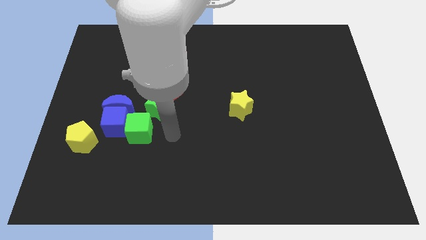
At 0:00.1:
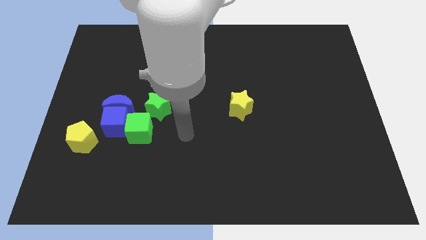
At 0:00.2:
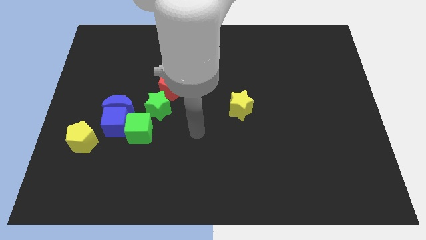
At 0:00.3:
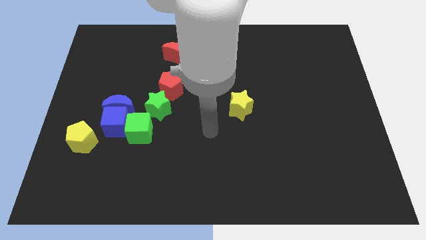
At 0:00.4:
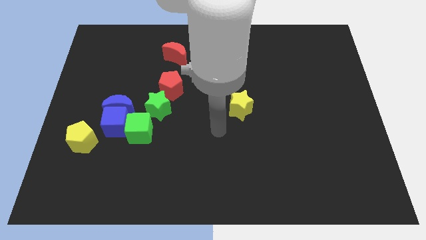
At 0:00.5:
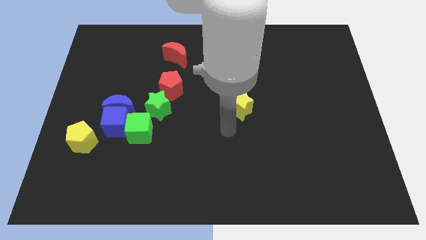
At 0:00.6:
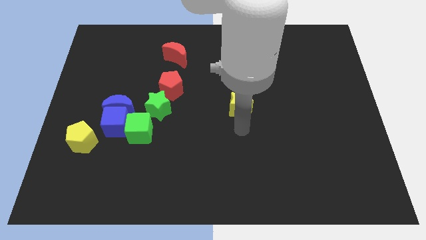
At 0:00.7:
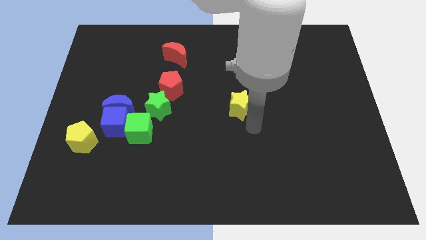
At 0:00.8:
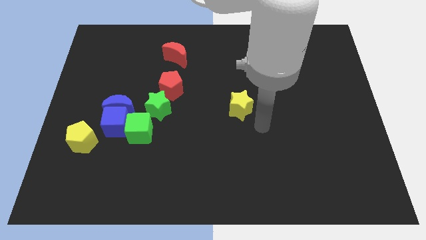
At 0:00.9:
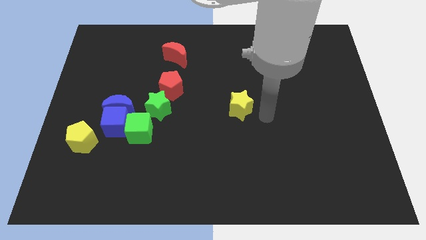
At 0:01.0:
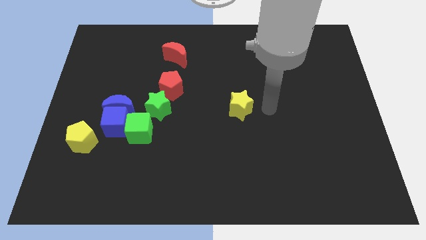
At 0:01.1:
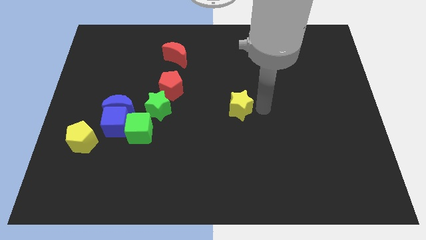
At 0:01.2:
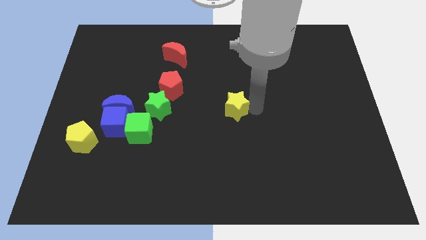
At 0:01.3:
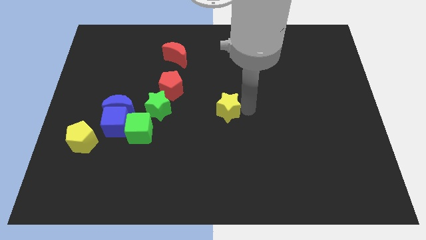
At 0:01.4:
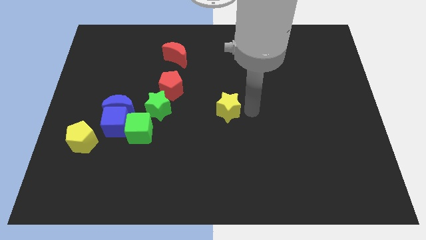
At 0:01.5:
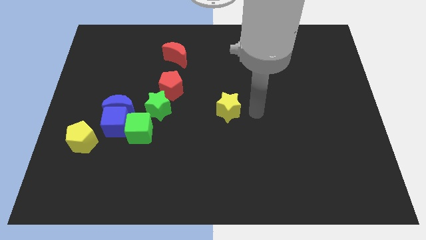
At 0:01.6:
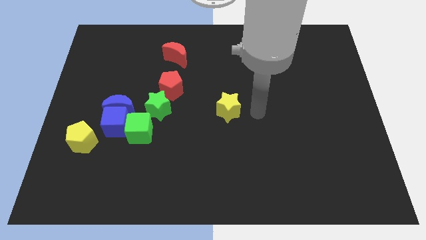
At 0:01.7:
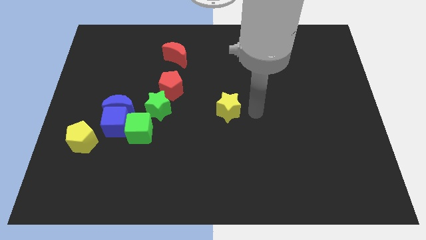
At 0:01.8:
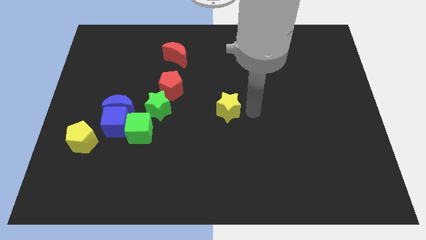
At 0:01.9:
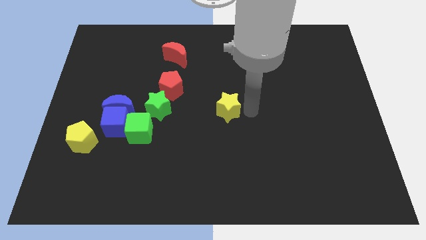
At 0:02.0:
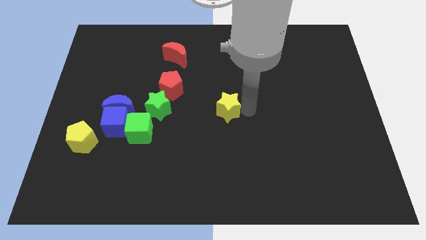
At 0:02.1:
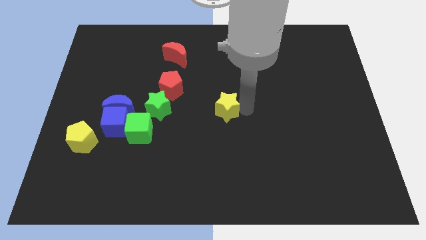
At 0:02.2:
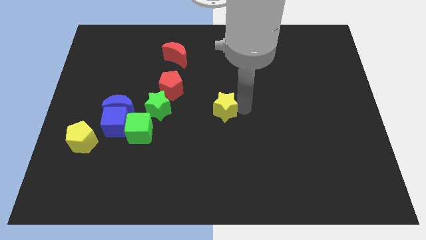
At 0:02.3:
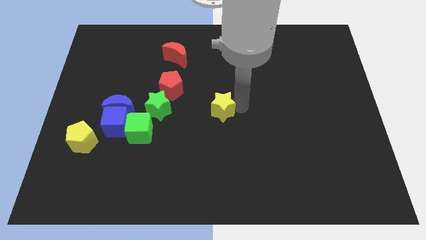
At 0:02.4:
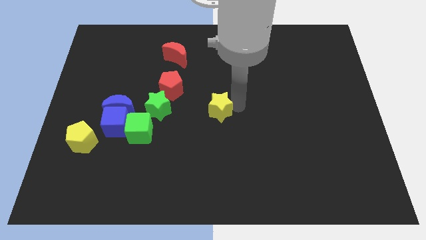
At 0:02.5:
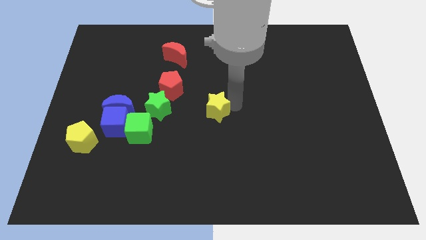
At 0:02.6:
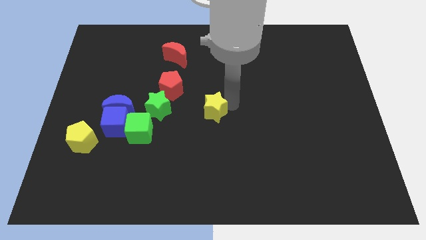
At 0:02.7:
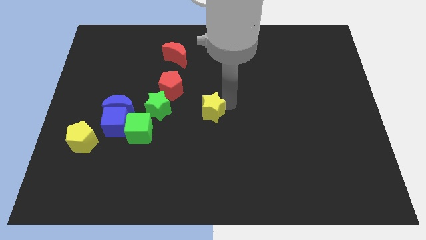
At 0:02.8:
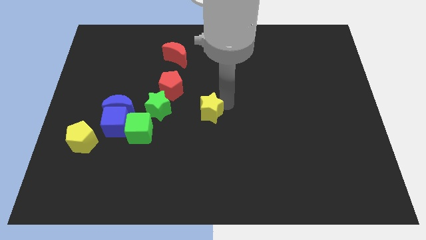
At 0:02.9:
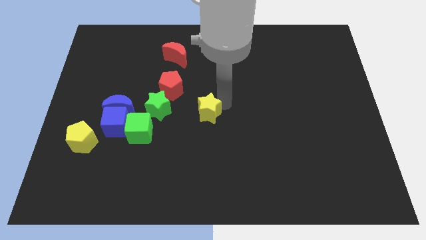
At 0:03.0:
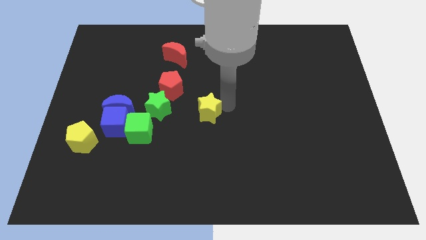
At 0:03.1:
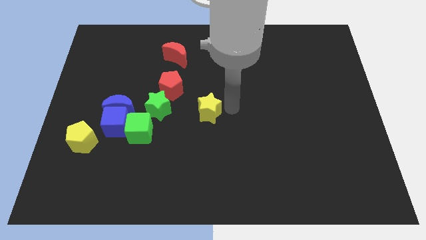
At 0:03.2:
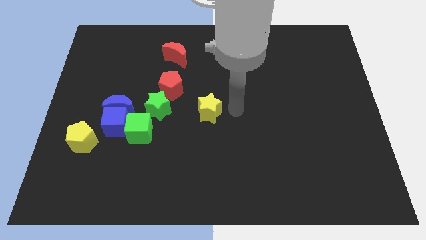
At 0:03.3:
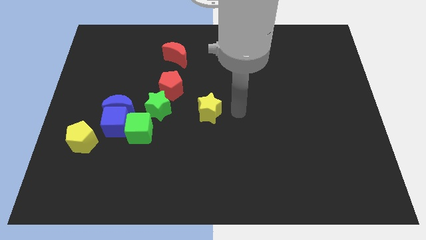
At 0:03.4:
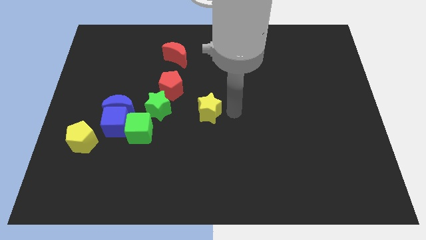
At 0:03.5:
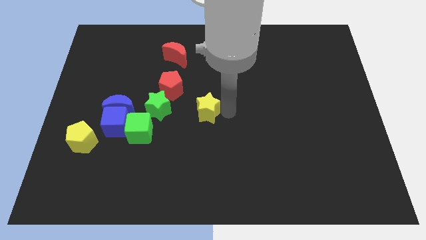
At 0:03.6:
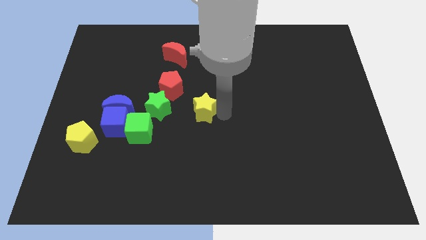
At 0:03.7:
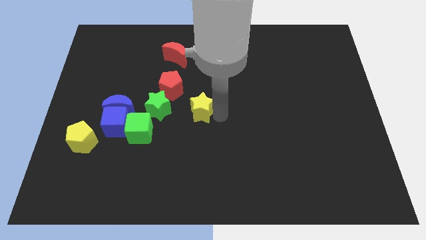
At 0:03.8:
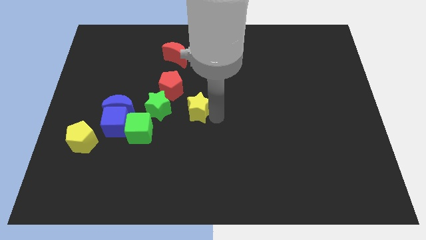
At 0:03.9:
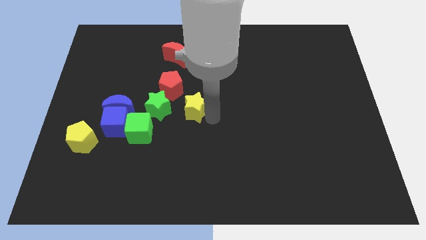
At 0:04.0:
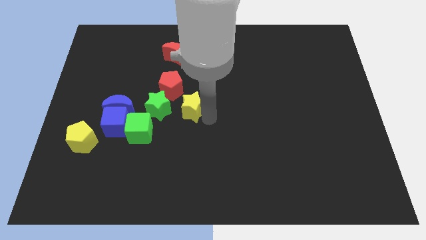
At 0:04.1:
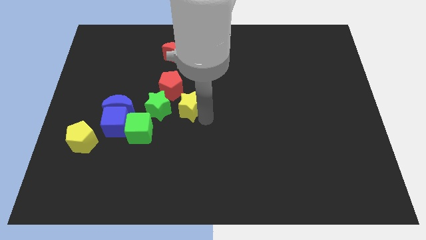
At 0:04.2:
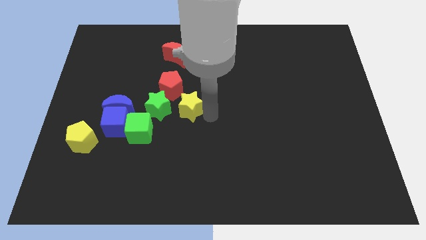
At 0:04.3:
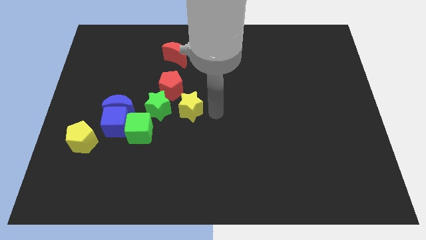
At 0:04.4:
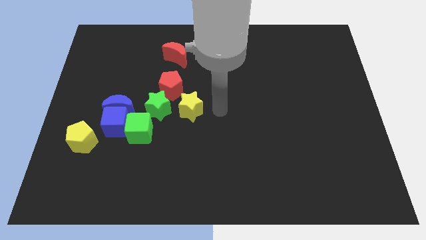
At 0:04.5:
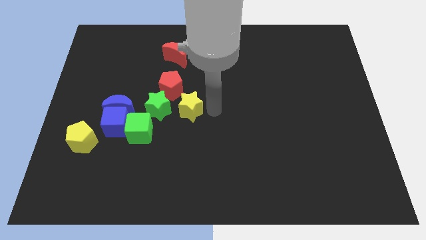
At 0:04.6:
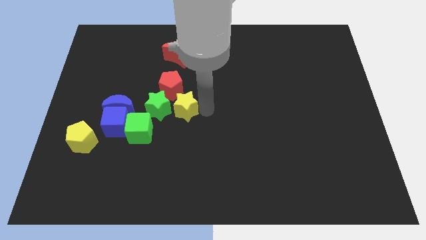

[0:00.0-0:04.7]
slide the yellow star right of the blue moon

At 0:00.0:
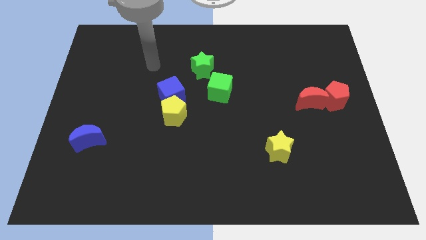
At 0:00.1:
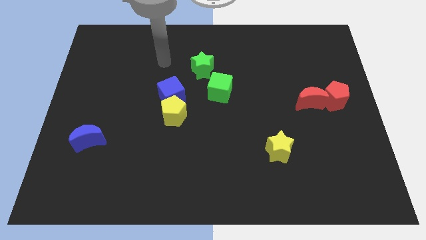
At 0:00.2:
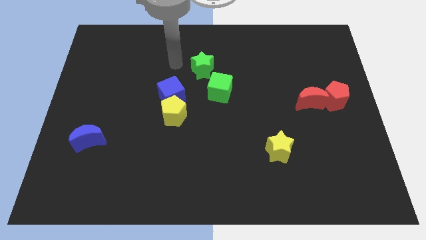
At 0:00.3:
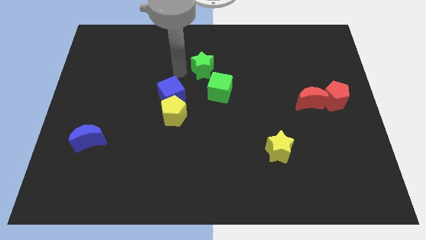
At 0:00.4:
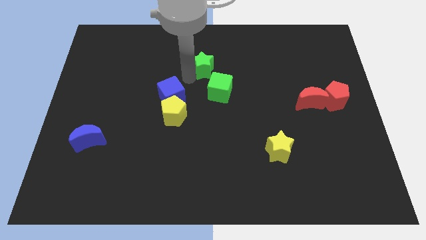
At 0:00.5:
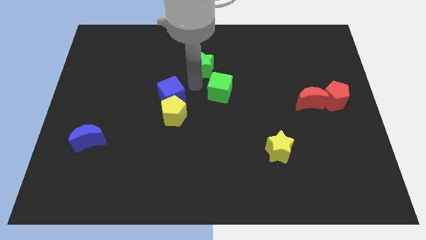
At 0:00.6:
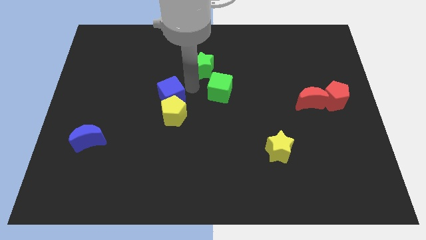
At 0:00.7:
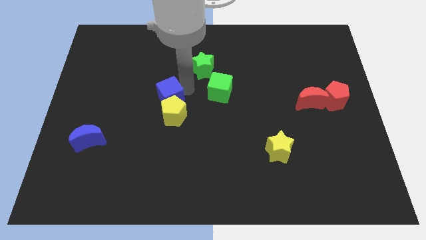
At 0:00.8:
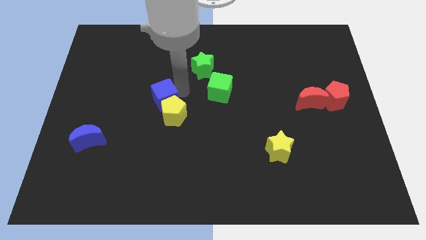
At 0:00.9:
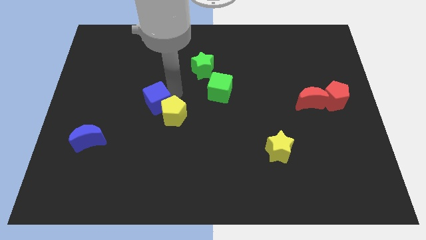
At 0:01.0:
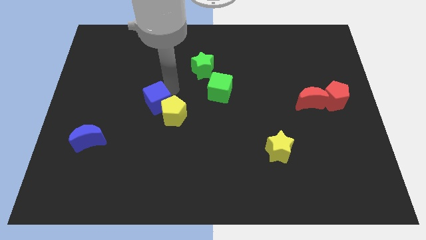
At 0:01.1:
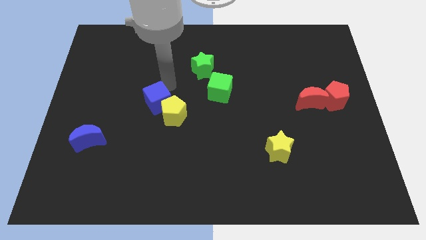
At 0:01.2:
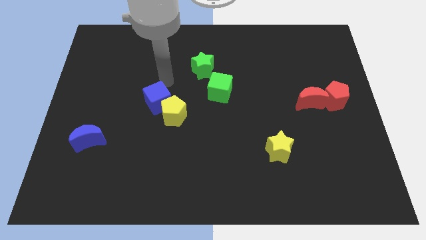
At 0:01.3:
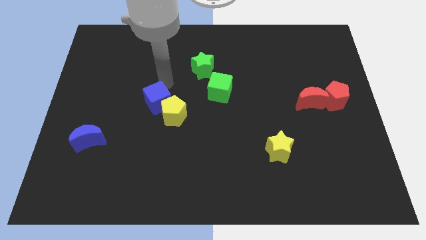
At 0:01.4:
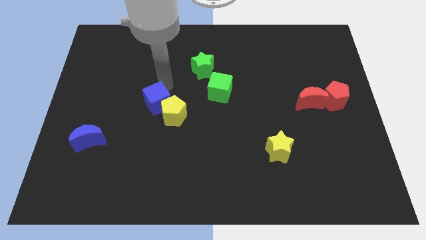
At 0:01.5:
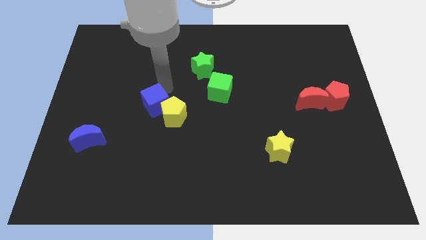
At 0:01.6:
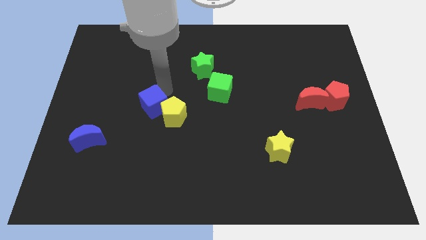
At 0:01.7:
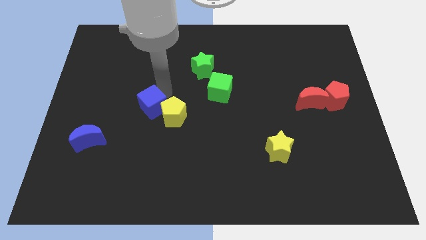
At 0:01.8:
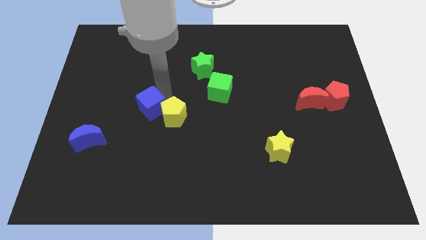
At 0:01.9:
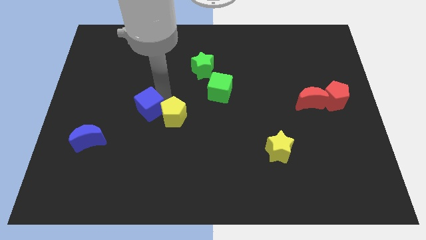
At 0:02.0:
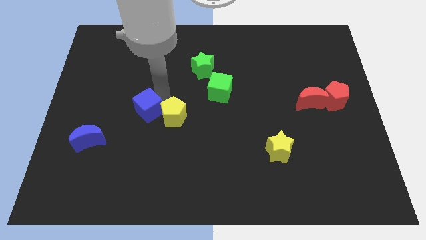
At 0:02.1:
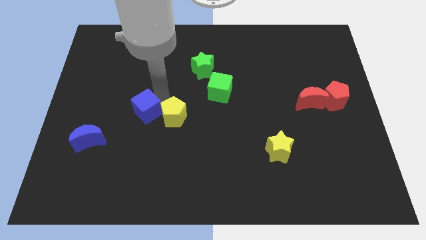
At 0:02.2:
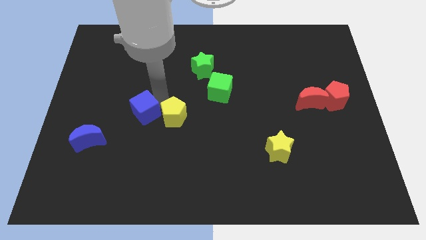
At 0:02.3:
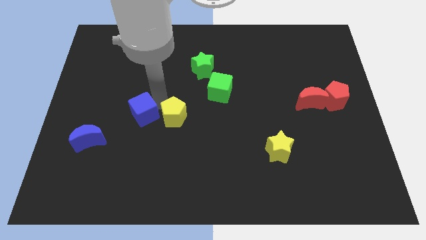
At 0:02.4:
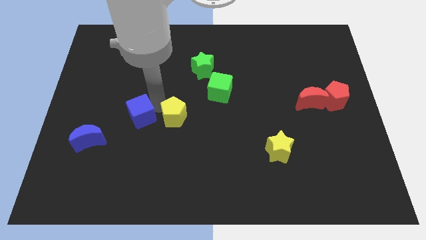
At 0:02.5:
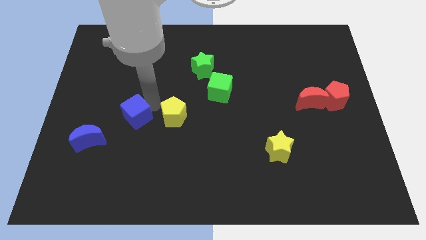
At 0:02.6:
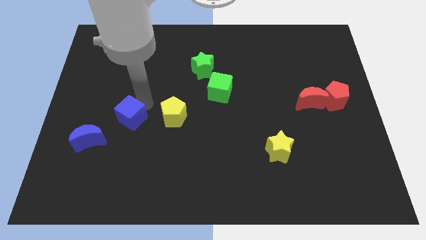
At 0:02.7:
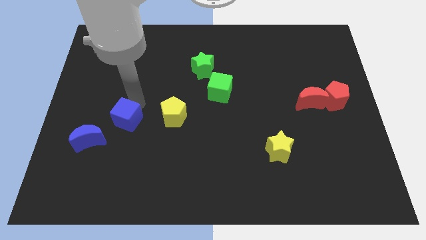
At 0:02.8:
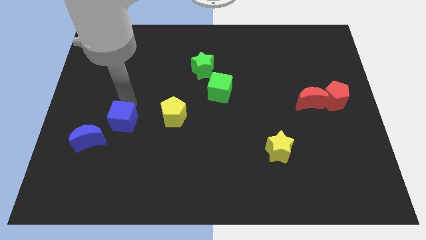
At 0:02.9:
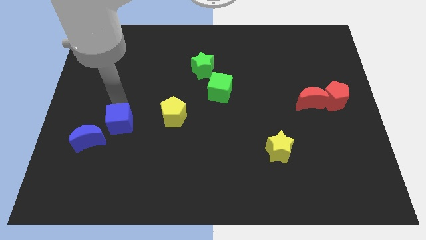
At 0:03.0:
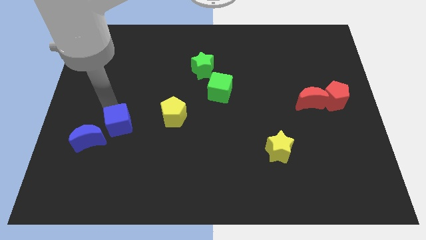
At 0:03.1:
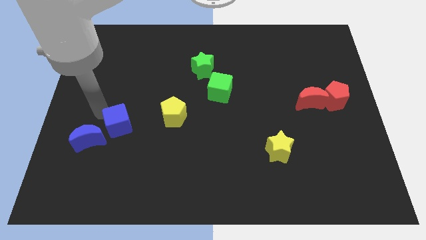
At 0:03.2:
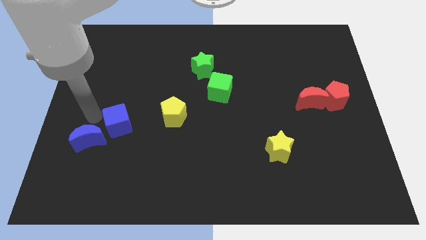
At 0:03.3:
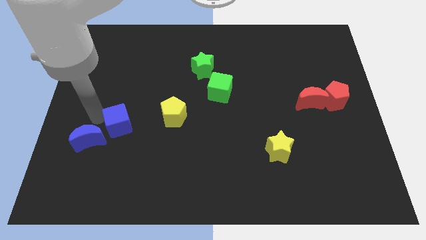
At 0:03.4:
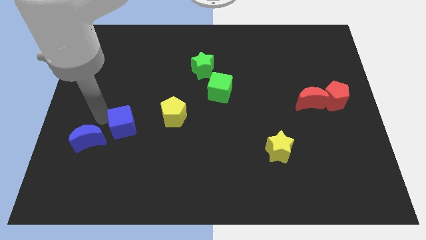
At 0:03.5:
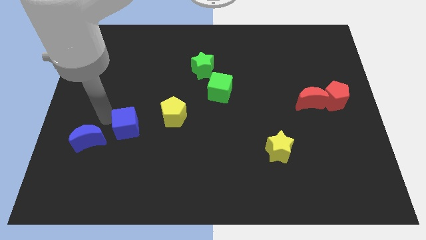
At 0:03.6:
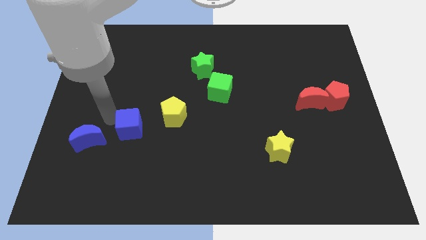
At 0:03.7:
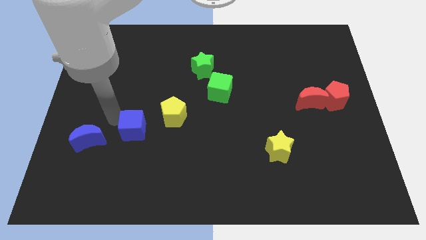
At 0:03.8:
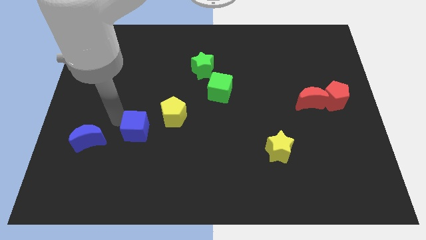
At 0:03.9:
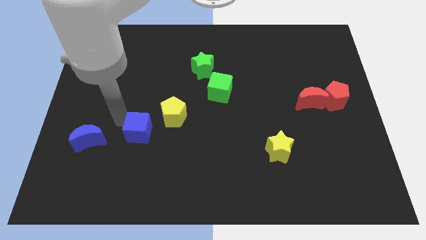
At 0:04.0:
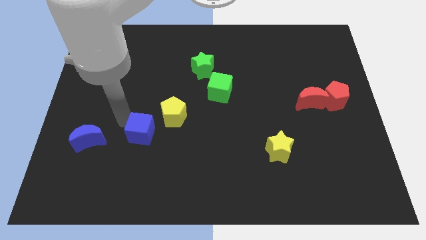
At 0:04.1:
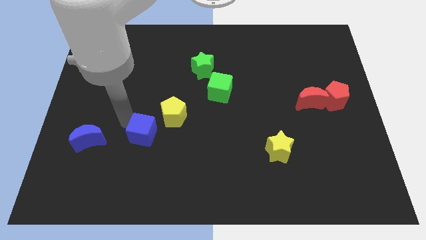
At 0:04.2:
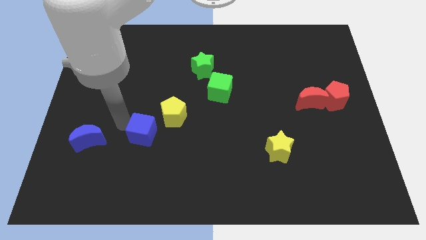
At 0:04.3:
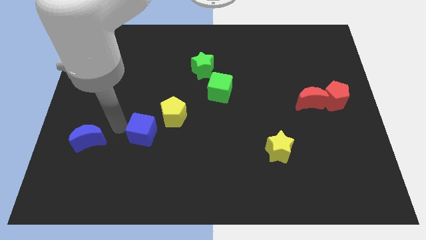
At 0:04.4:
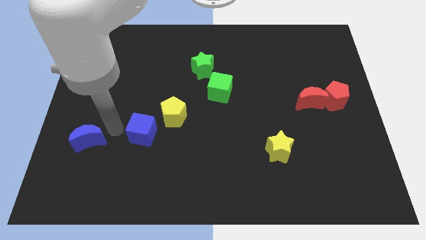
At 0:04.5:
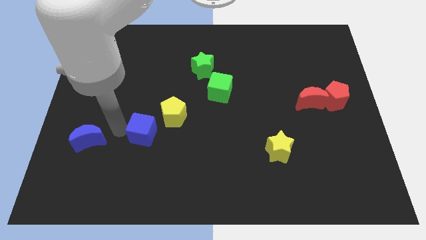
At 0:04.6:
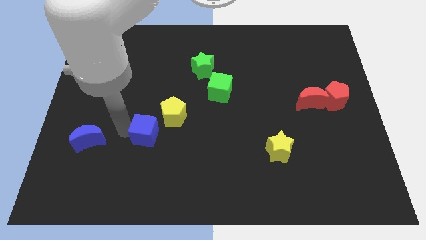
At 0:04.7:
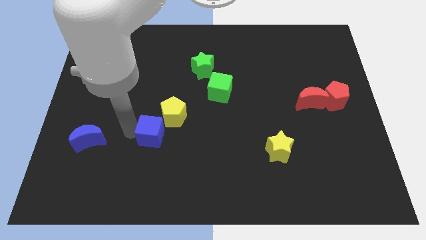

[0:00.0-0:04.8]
move the blue cube below the yellow pentagon
